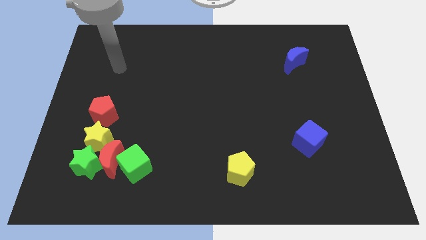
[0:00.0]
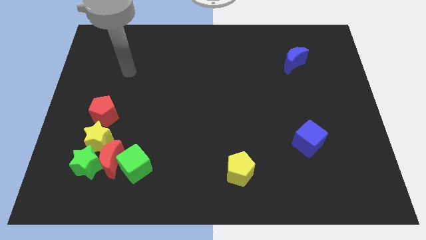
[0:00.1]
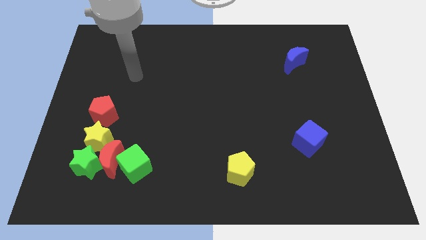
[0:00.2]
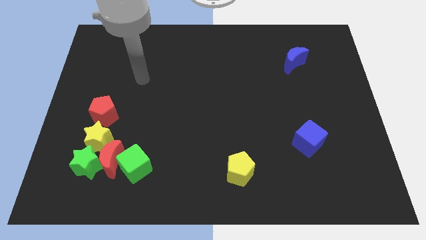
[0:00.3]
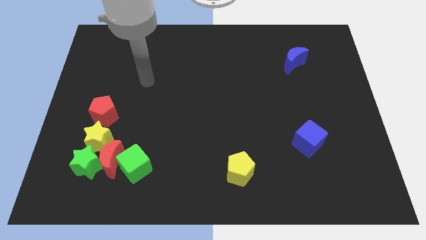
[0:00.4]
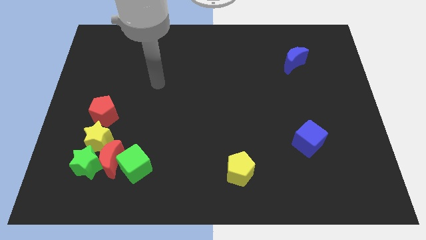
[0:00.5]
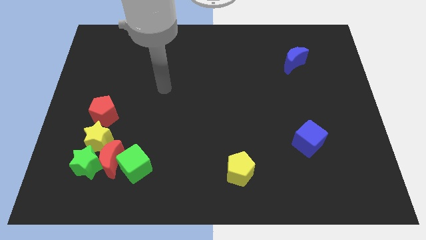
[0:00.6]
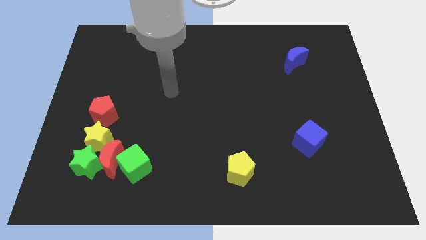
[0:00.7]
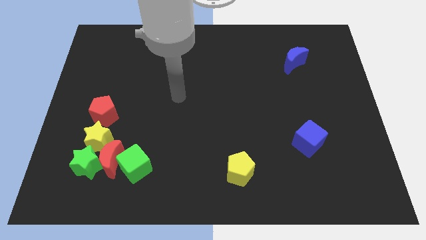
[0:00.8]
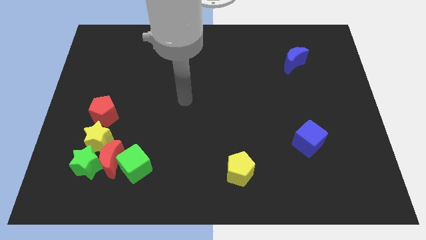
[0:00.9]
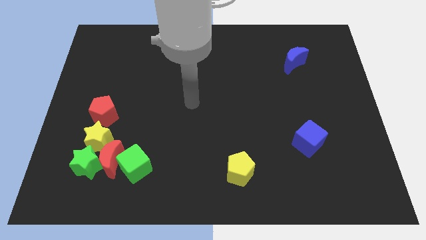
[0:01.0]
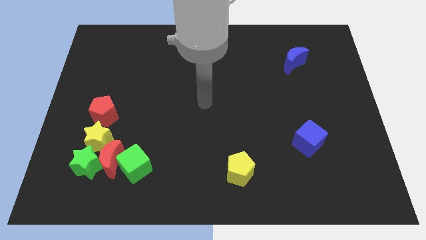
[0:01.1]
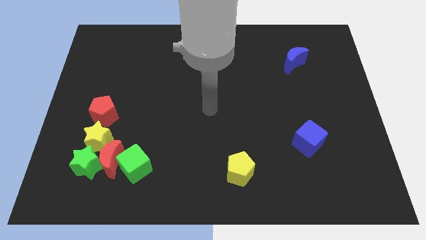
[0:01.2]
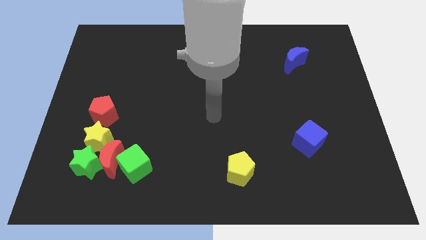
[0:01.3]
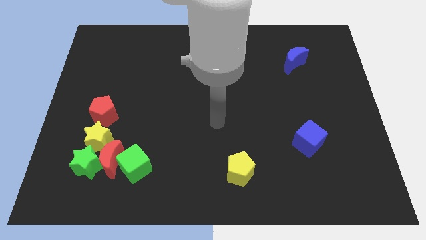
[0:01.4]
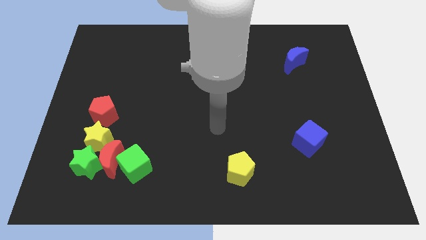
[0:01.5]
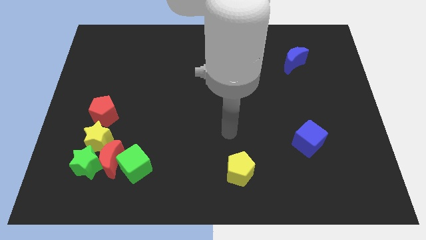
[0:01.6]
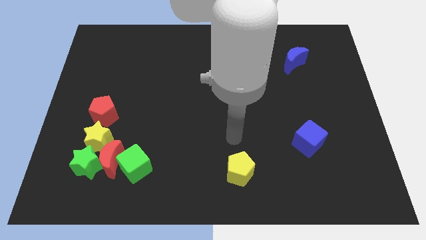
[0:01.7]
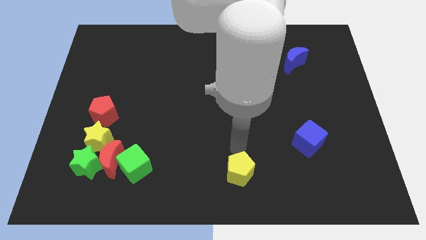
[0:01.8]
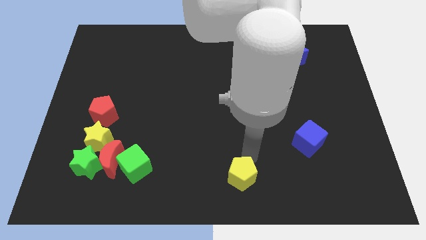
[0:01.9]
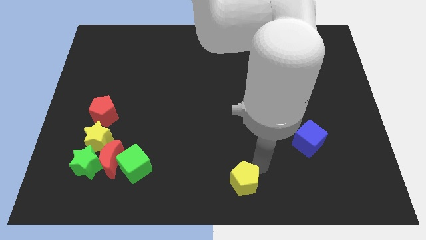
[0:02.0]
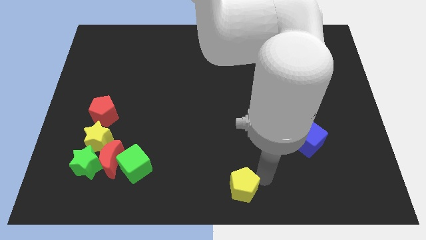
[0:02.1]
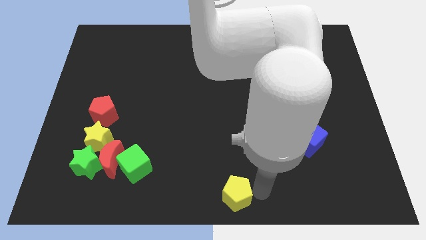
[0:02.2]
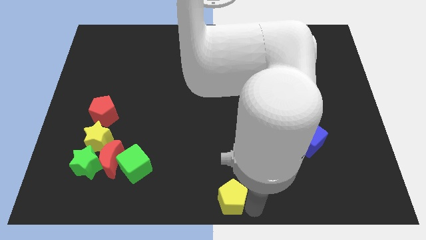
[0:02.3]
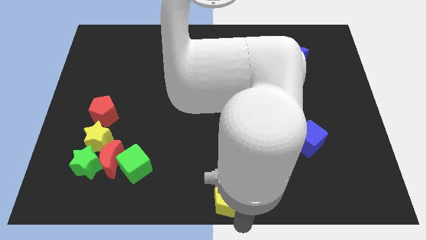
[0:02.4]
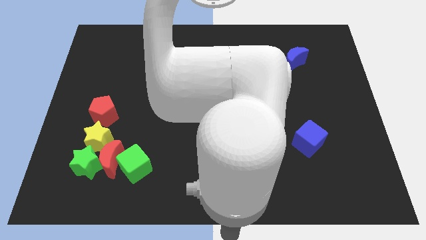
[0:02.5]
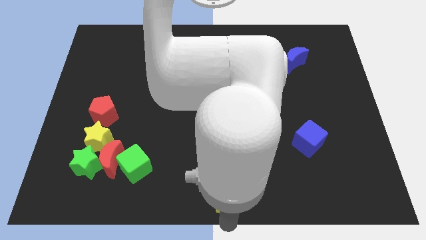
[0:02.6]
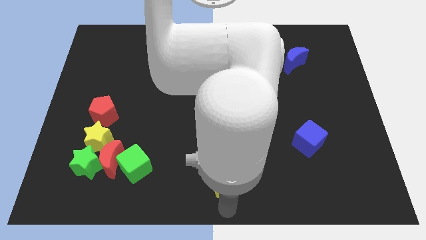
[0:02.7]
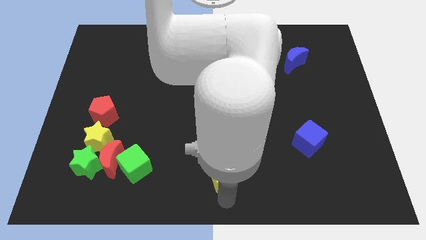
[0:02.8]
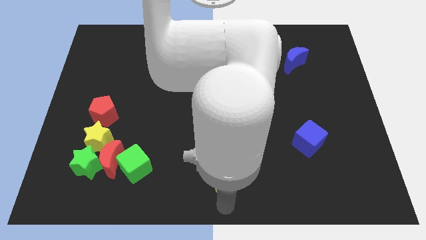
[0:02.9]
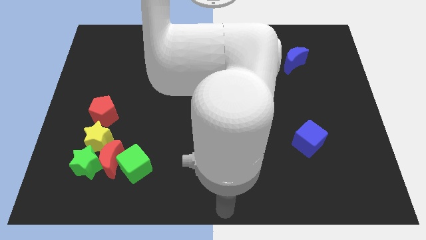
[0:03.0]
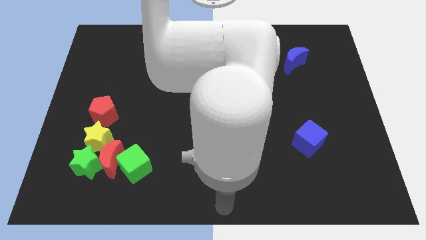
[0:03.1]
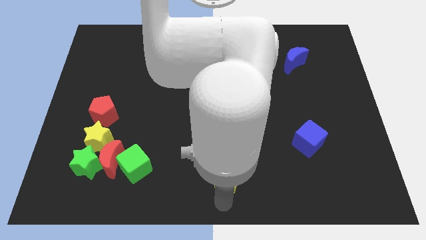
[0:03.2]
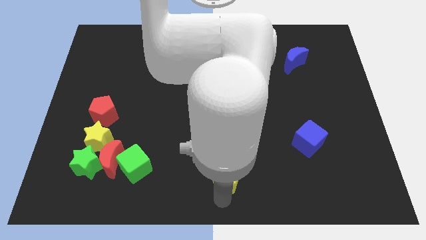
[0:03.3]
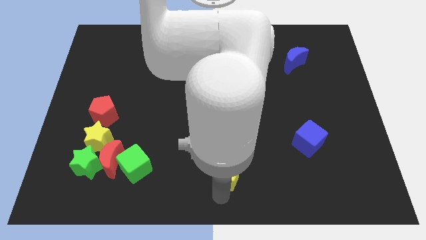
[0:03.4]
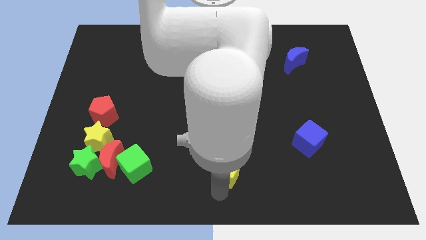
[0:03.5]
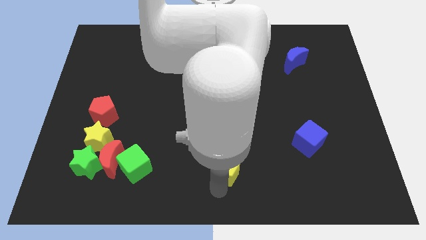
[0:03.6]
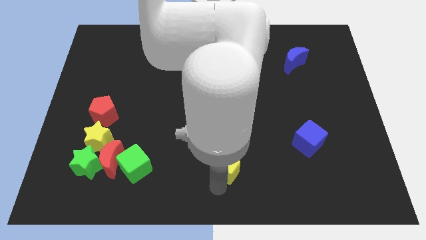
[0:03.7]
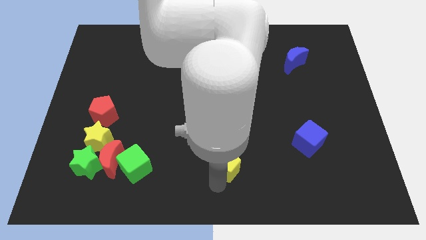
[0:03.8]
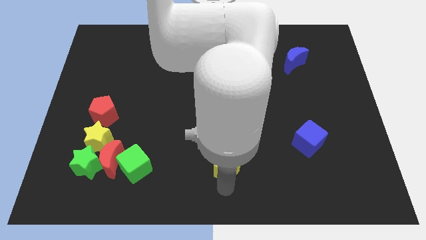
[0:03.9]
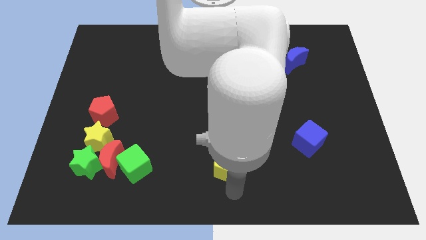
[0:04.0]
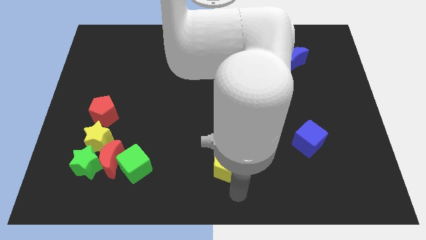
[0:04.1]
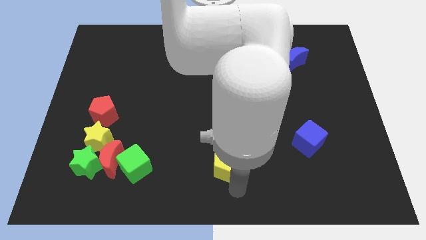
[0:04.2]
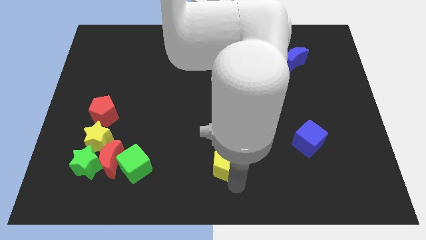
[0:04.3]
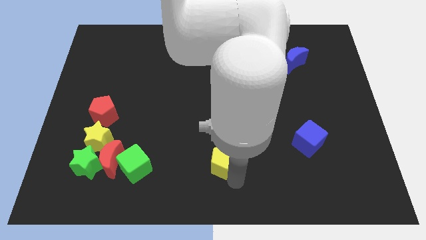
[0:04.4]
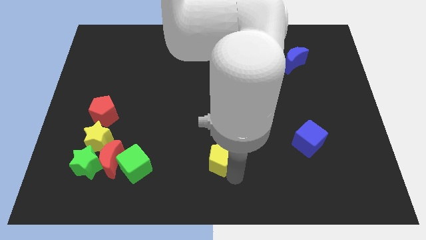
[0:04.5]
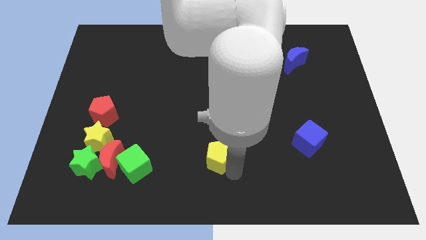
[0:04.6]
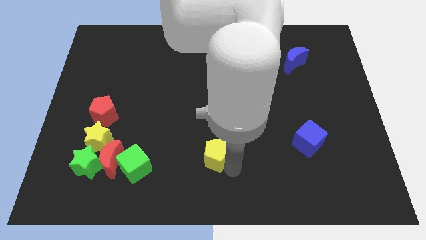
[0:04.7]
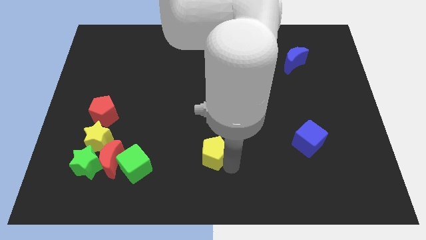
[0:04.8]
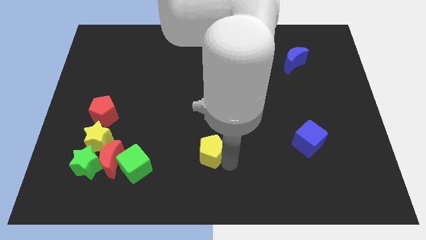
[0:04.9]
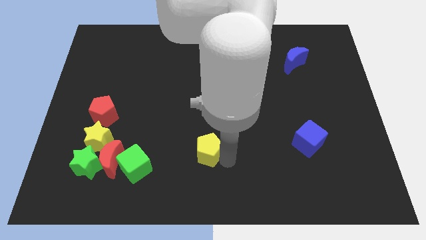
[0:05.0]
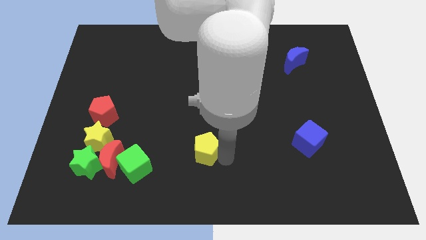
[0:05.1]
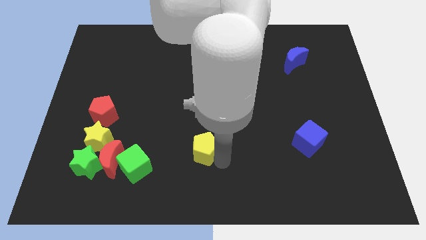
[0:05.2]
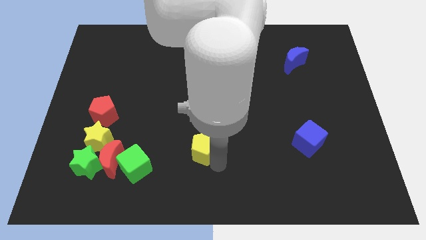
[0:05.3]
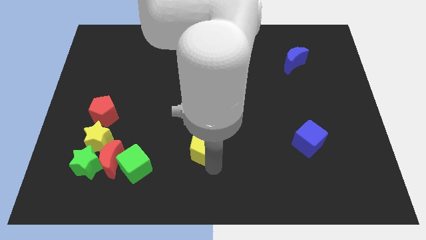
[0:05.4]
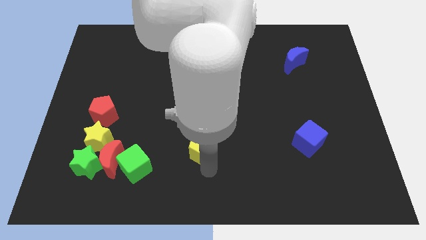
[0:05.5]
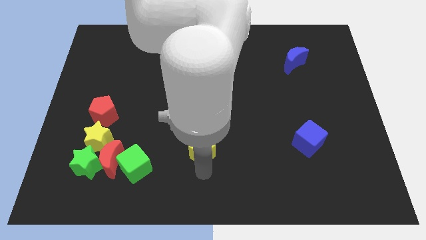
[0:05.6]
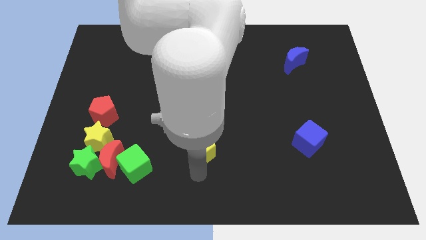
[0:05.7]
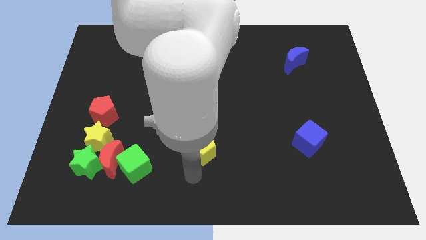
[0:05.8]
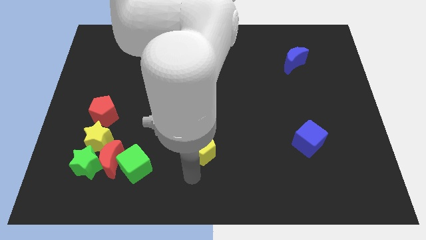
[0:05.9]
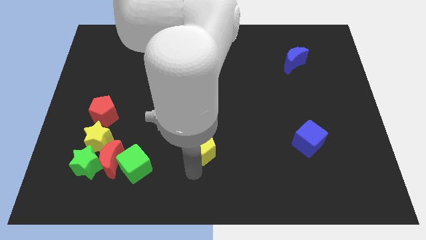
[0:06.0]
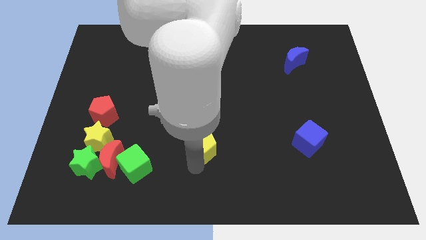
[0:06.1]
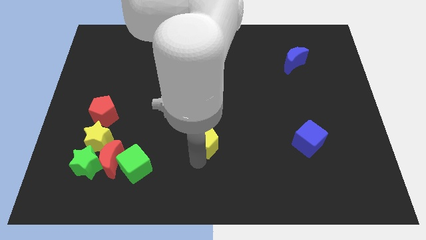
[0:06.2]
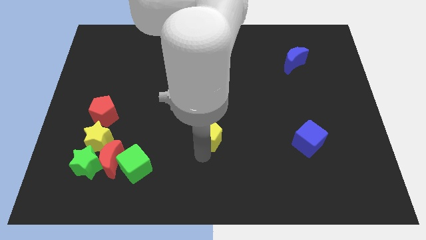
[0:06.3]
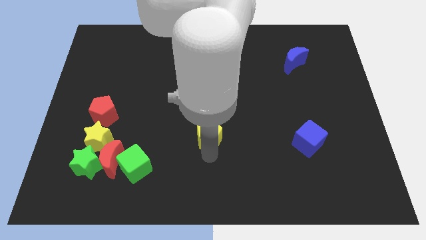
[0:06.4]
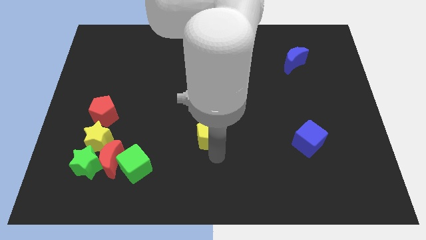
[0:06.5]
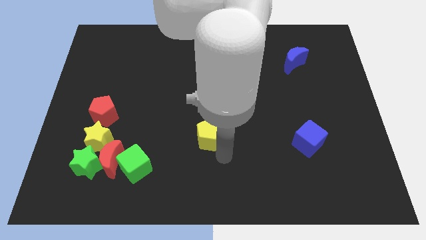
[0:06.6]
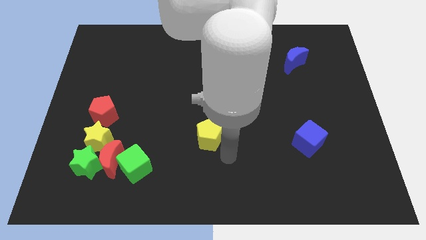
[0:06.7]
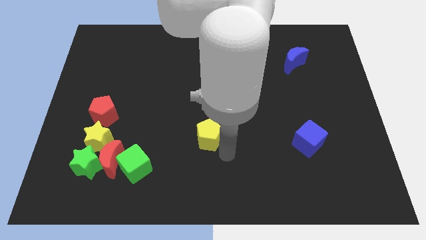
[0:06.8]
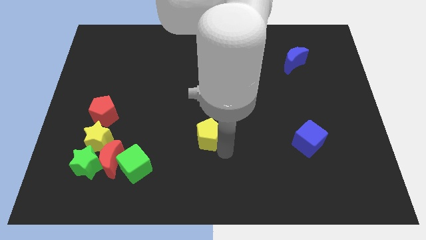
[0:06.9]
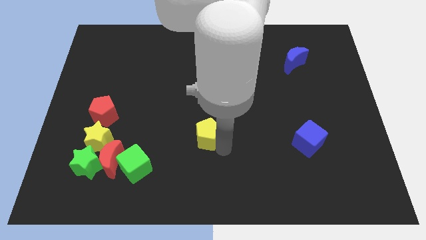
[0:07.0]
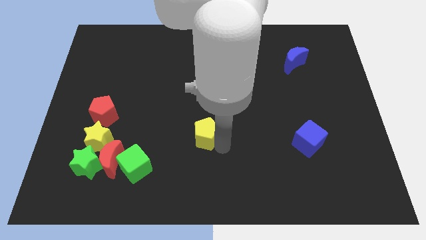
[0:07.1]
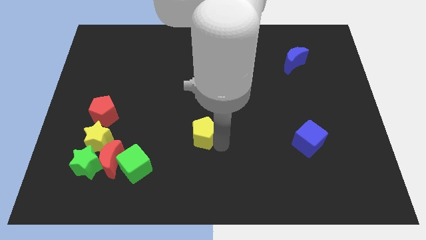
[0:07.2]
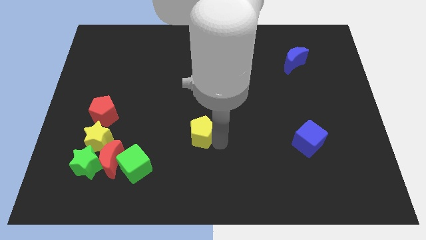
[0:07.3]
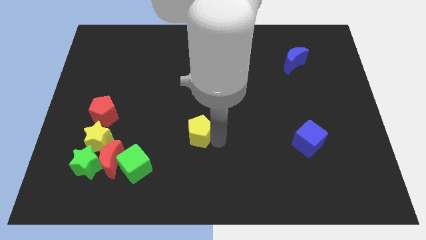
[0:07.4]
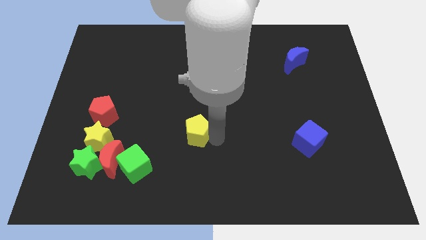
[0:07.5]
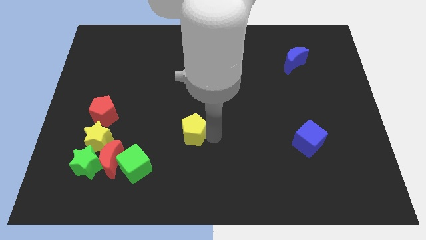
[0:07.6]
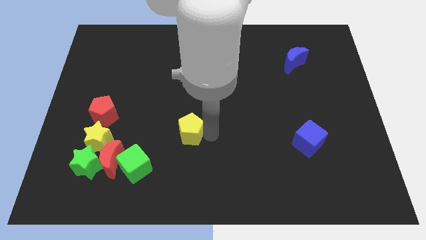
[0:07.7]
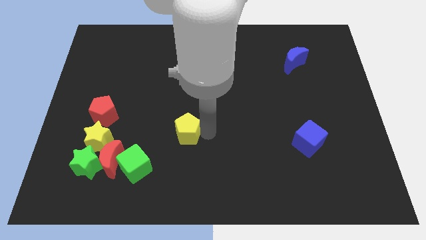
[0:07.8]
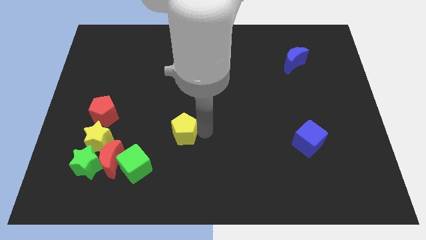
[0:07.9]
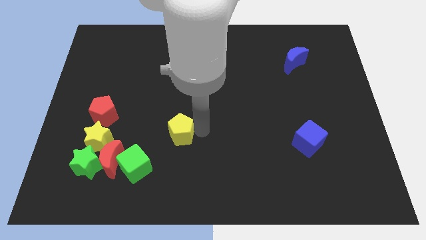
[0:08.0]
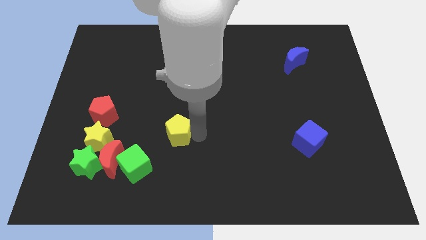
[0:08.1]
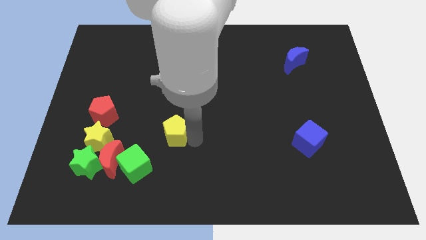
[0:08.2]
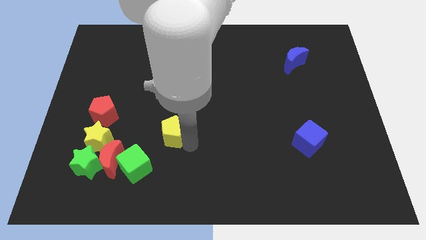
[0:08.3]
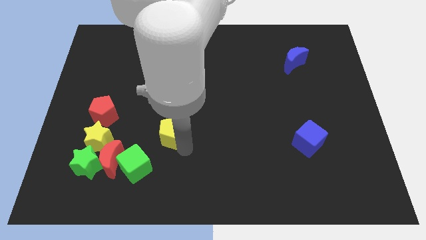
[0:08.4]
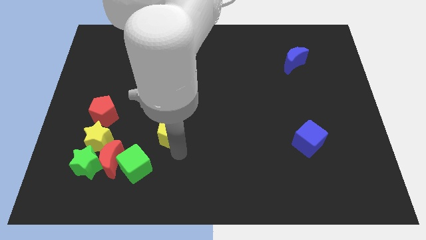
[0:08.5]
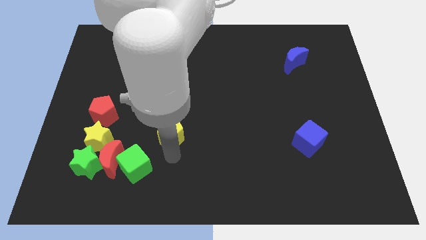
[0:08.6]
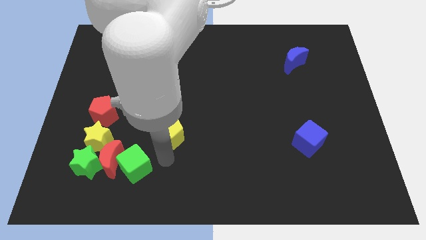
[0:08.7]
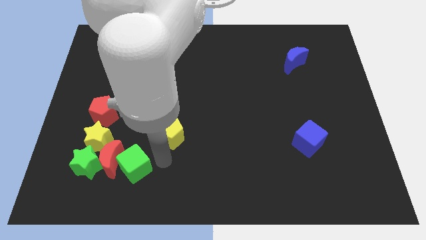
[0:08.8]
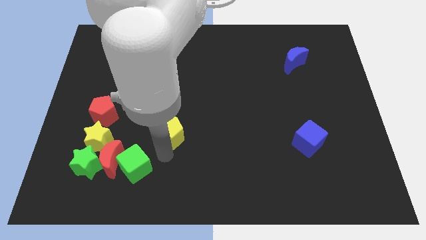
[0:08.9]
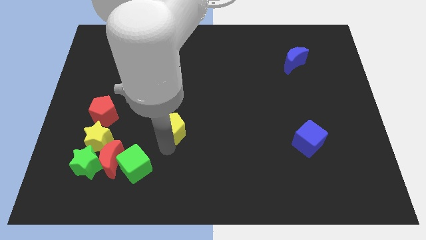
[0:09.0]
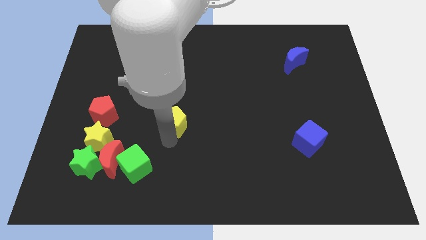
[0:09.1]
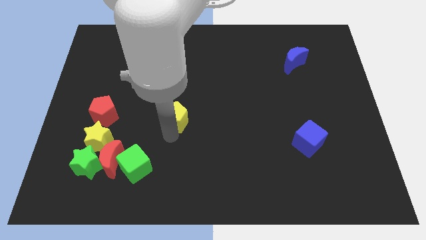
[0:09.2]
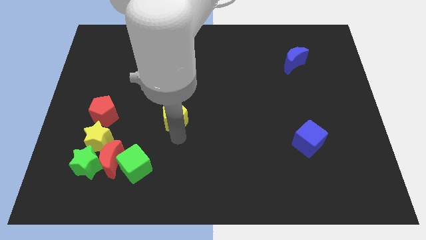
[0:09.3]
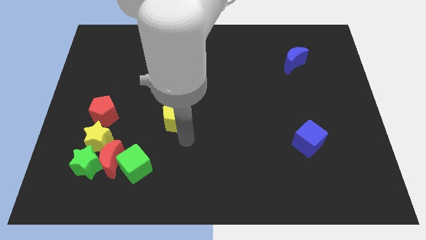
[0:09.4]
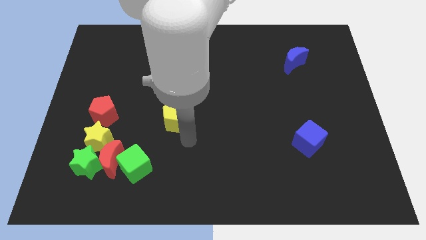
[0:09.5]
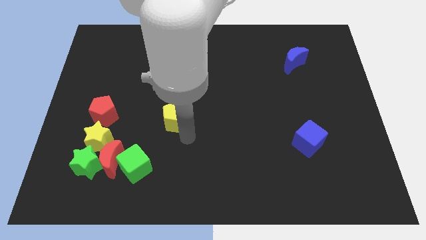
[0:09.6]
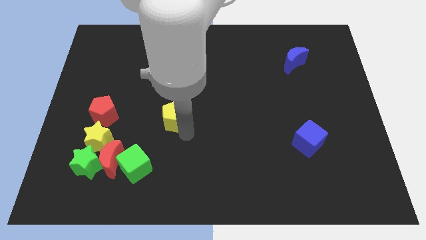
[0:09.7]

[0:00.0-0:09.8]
push the yellow pentagon up and to the left diagonally
